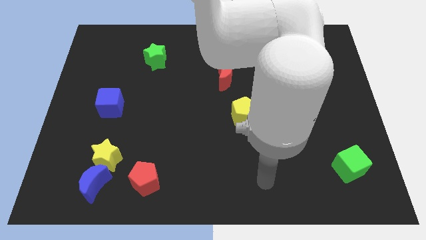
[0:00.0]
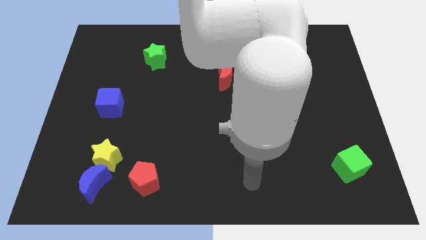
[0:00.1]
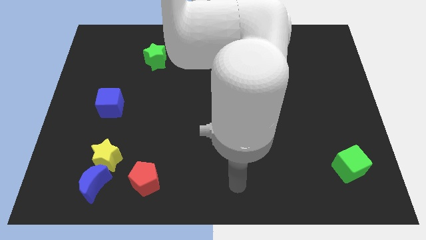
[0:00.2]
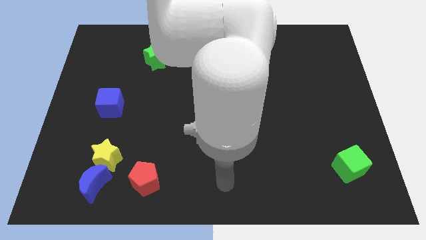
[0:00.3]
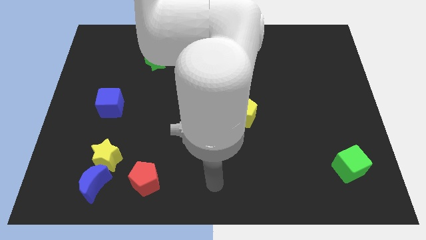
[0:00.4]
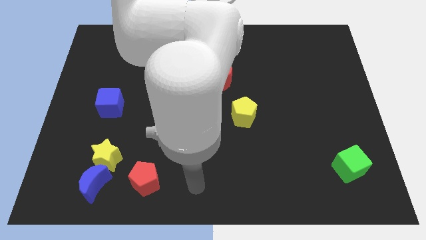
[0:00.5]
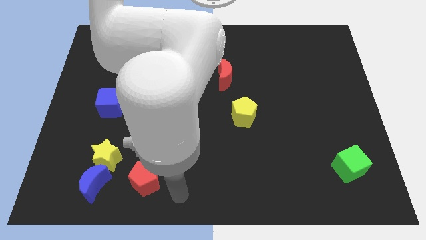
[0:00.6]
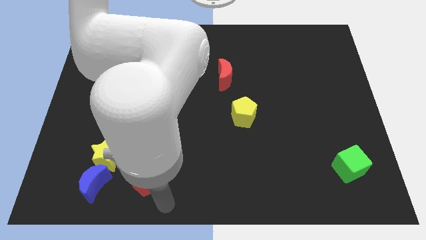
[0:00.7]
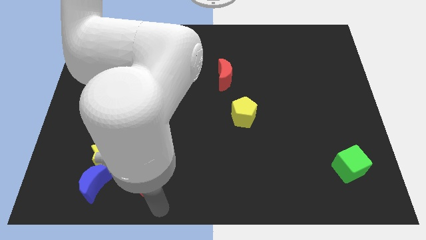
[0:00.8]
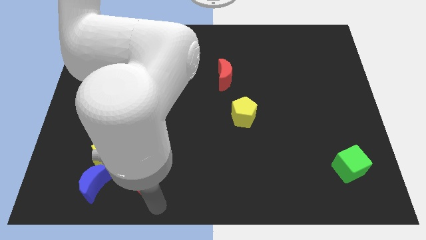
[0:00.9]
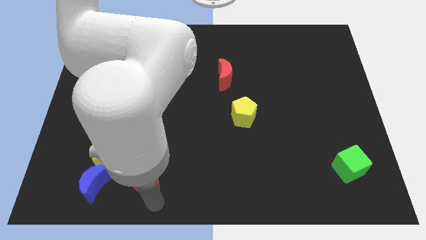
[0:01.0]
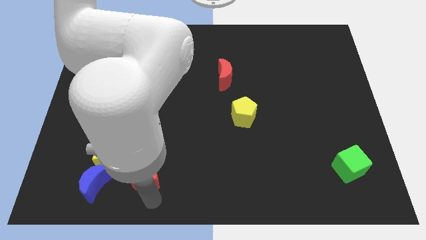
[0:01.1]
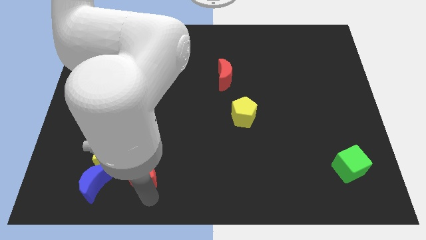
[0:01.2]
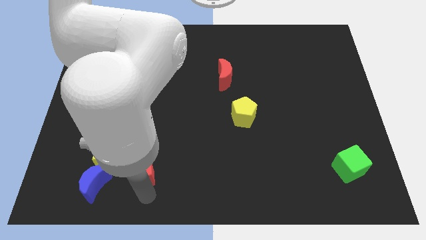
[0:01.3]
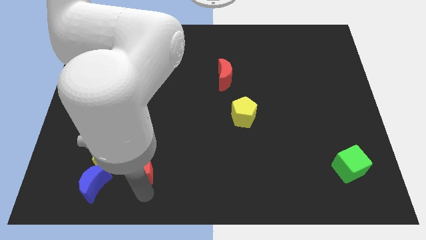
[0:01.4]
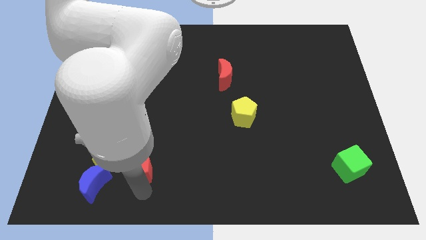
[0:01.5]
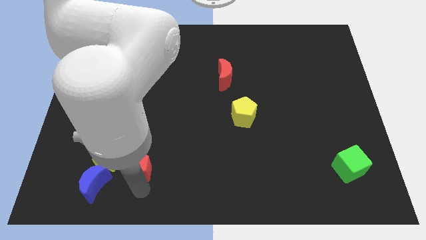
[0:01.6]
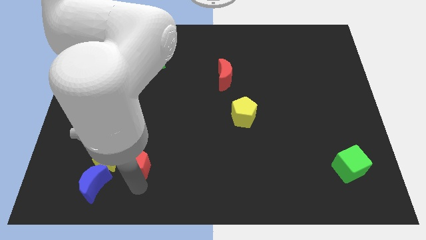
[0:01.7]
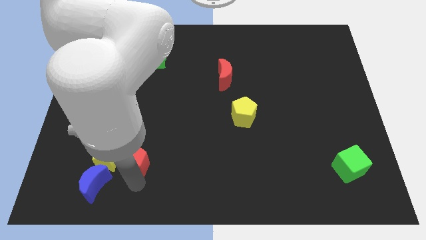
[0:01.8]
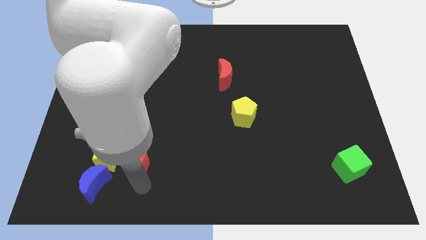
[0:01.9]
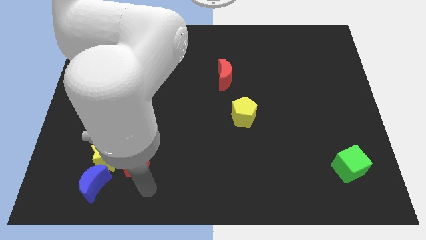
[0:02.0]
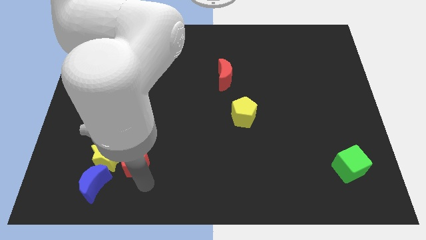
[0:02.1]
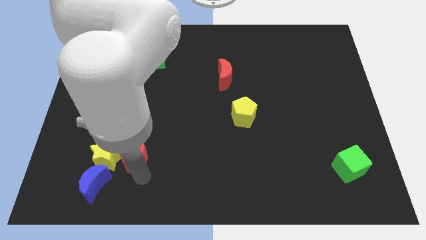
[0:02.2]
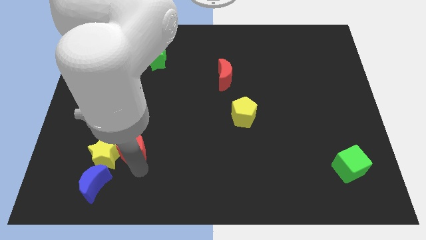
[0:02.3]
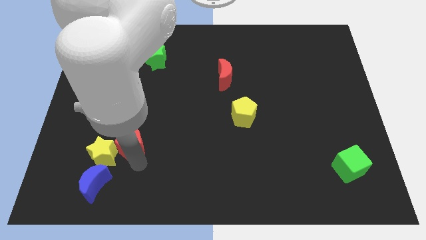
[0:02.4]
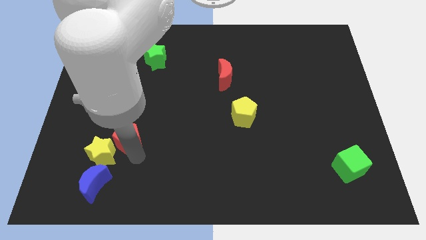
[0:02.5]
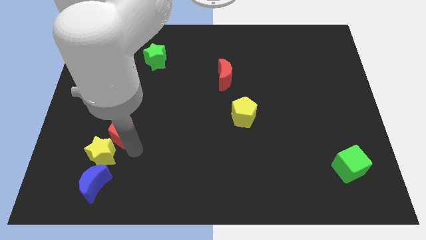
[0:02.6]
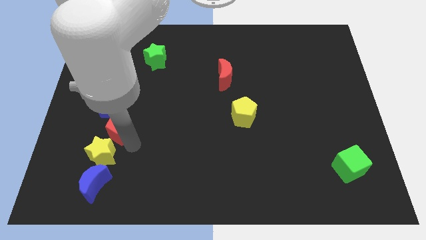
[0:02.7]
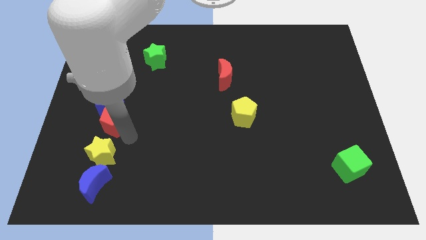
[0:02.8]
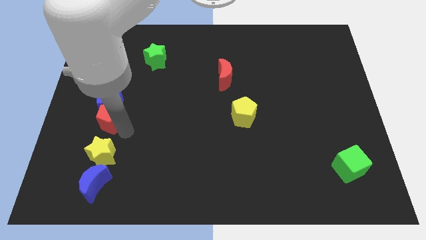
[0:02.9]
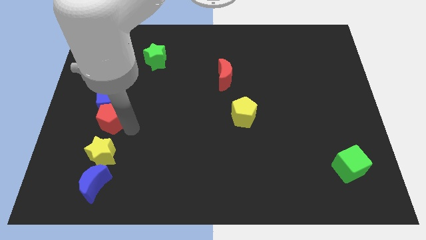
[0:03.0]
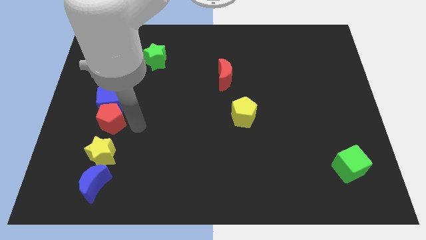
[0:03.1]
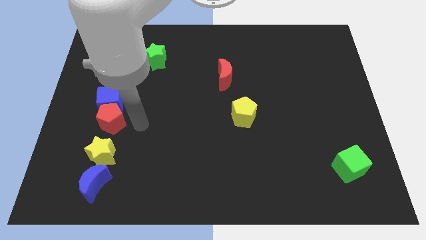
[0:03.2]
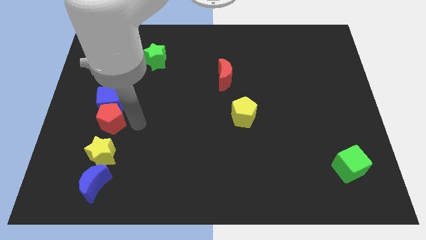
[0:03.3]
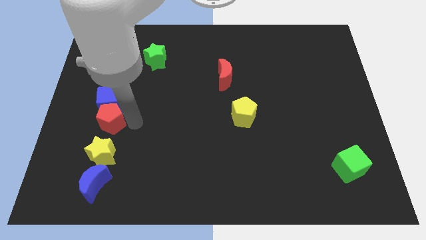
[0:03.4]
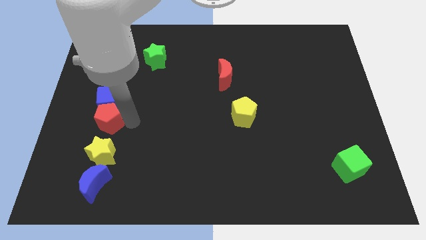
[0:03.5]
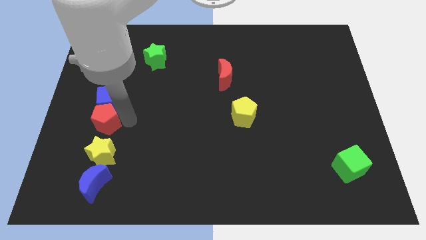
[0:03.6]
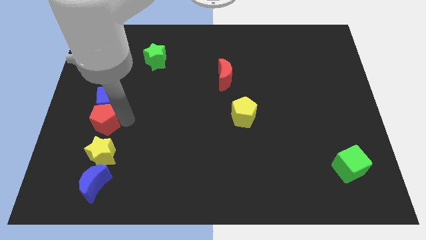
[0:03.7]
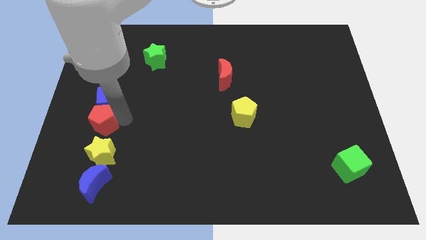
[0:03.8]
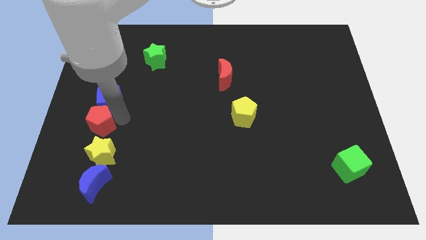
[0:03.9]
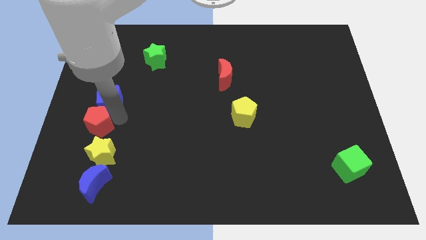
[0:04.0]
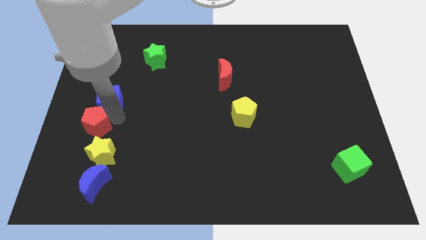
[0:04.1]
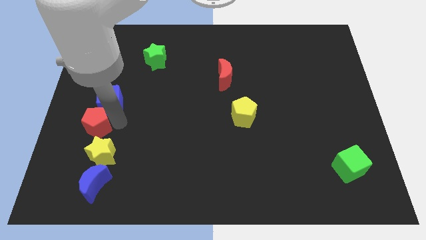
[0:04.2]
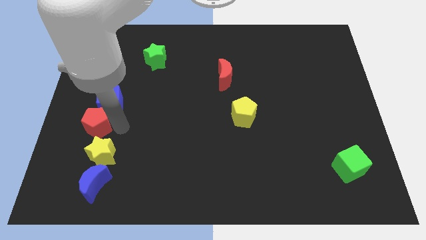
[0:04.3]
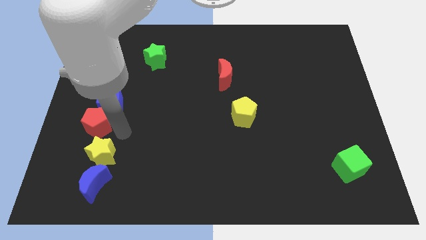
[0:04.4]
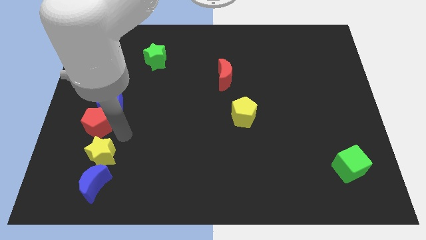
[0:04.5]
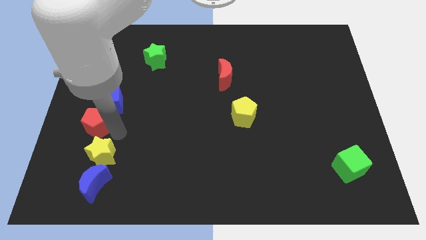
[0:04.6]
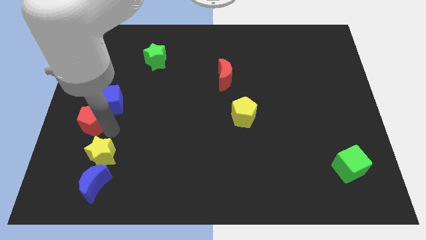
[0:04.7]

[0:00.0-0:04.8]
move the red pentagon to the left side

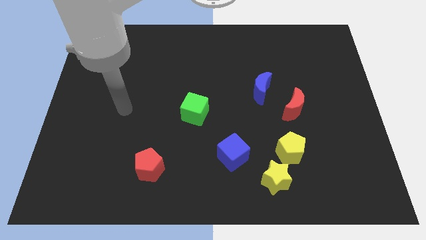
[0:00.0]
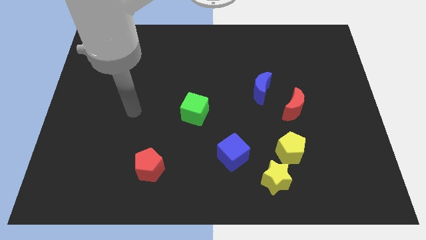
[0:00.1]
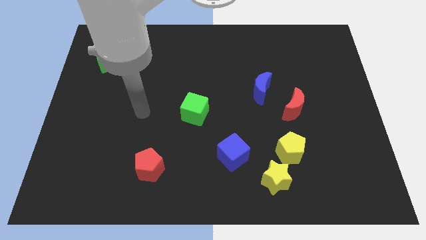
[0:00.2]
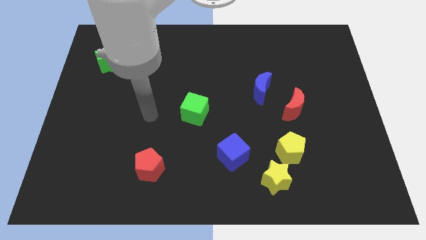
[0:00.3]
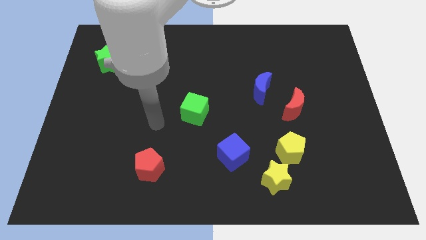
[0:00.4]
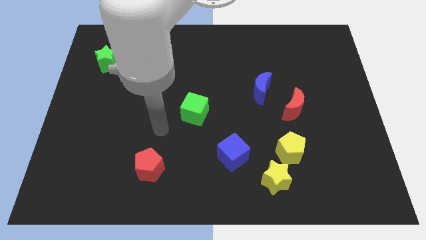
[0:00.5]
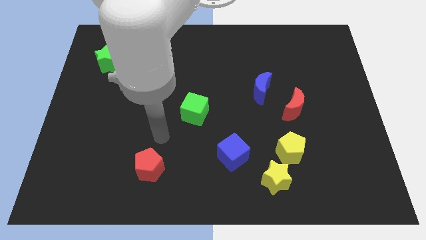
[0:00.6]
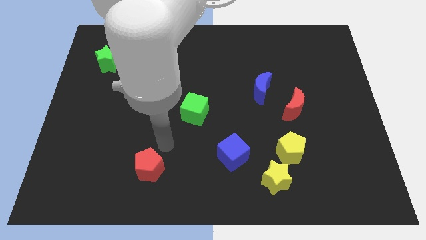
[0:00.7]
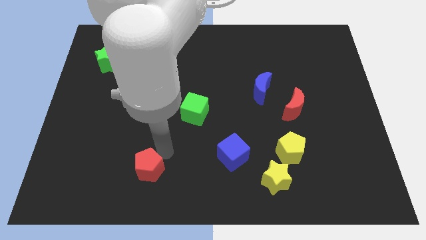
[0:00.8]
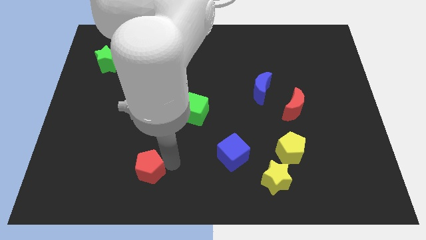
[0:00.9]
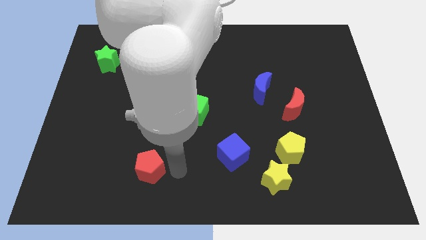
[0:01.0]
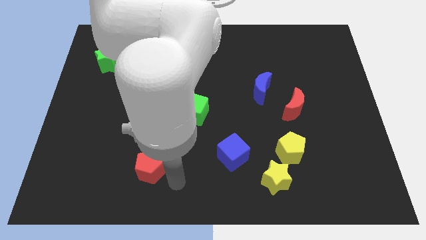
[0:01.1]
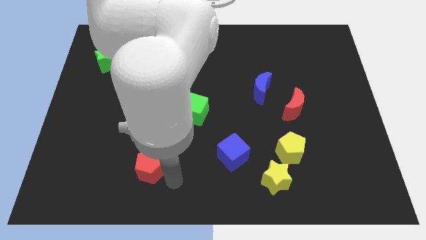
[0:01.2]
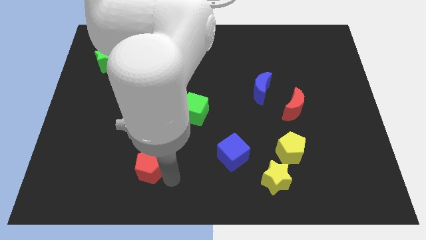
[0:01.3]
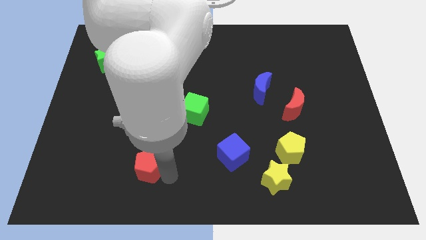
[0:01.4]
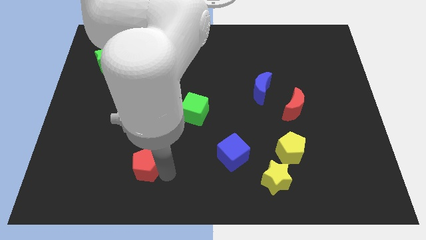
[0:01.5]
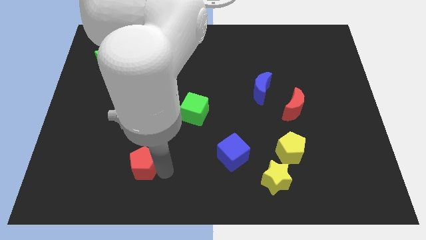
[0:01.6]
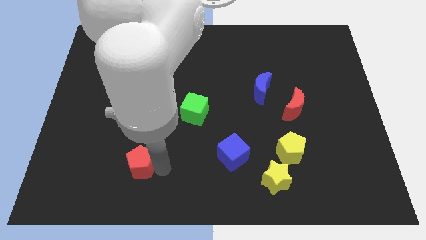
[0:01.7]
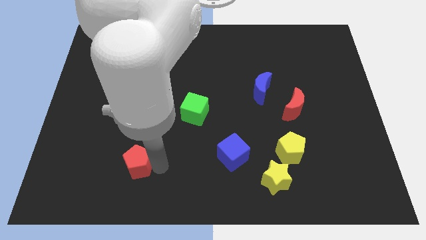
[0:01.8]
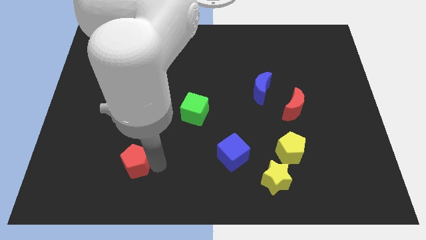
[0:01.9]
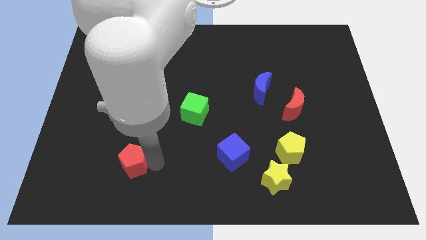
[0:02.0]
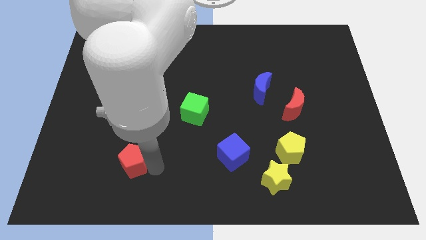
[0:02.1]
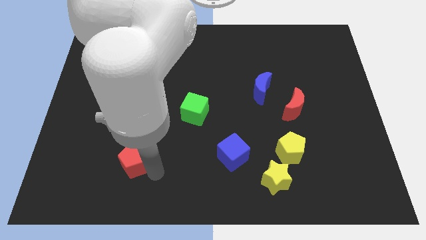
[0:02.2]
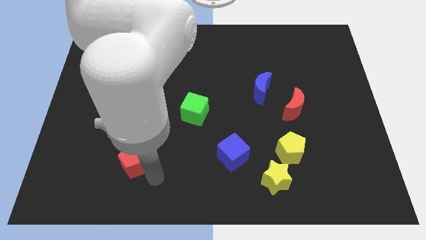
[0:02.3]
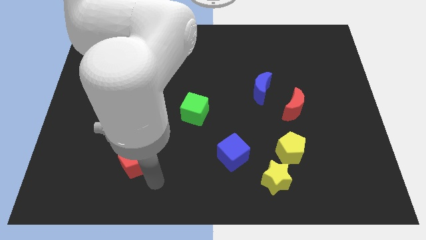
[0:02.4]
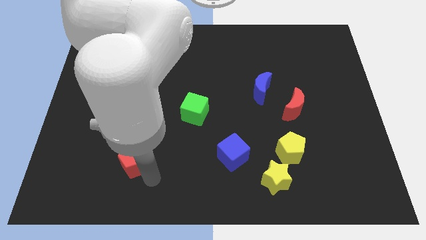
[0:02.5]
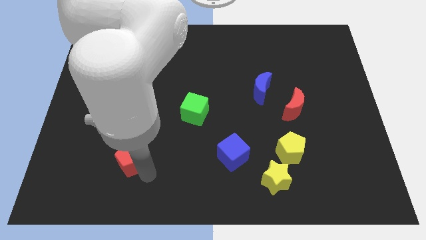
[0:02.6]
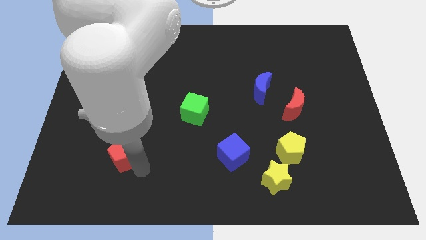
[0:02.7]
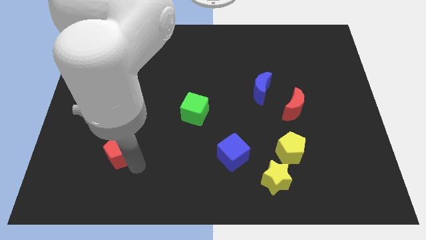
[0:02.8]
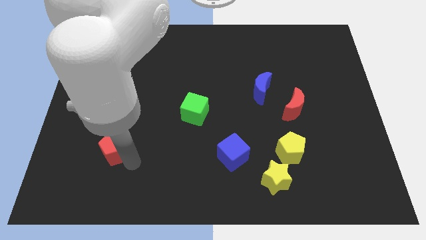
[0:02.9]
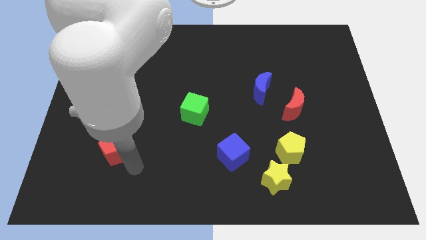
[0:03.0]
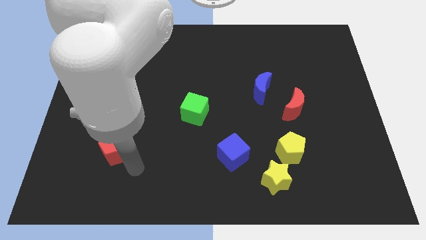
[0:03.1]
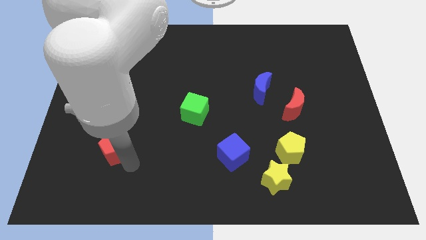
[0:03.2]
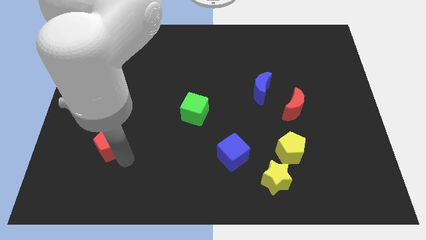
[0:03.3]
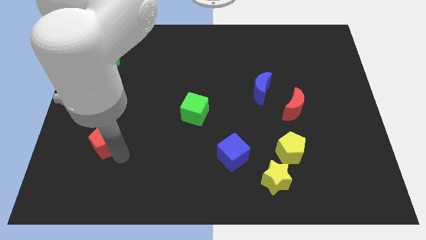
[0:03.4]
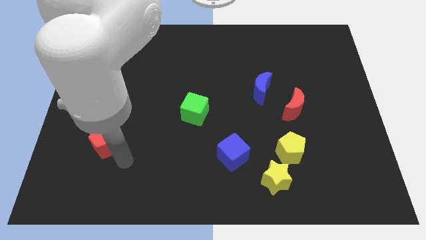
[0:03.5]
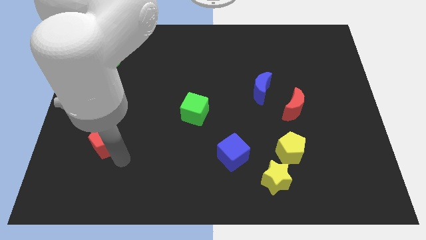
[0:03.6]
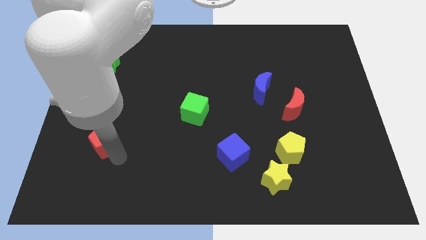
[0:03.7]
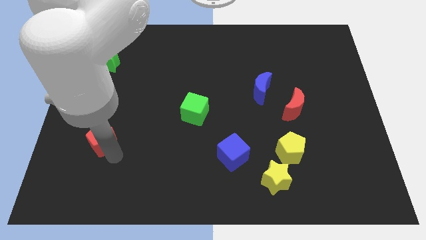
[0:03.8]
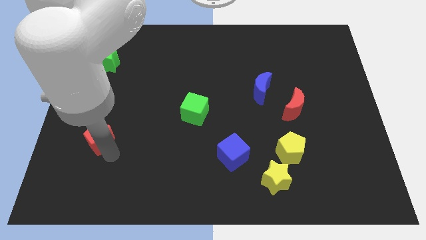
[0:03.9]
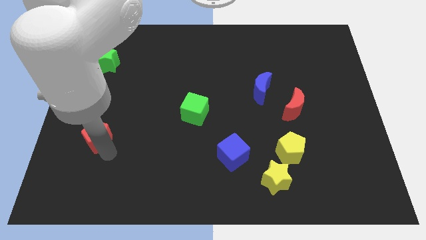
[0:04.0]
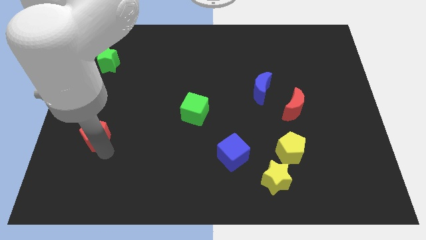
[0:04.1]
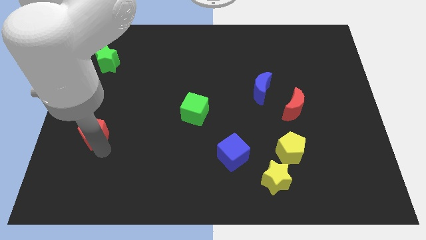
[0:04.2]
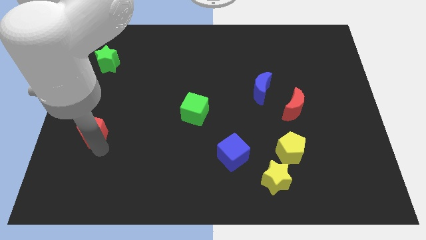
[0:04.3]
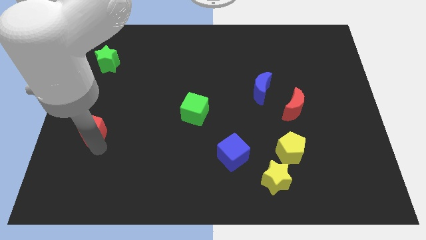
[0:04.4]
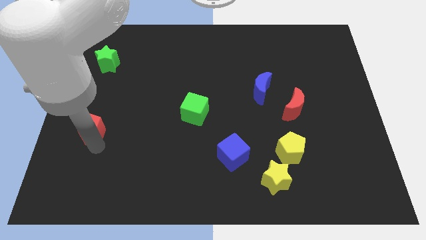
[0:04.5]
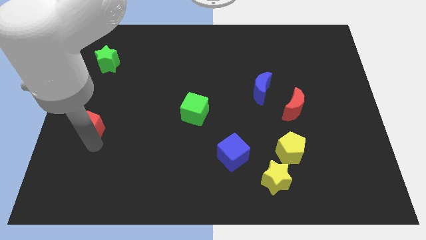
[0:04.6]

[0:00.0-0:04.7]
push the red pentagon to the center left
